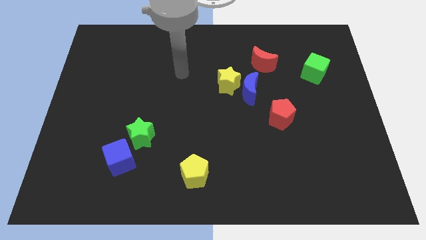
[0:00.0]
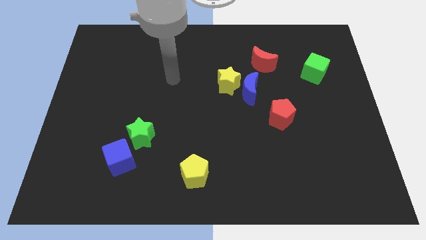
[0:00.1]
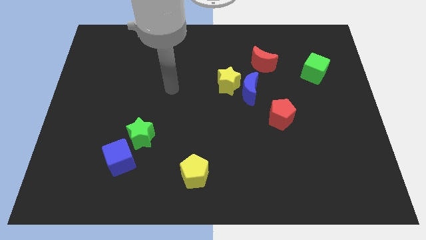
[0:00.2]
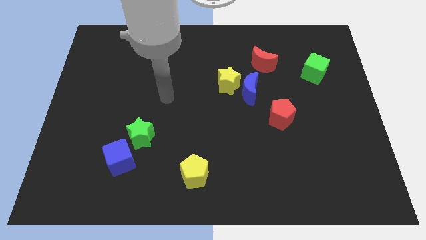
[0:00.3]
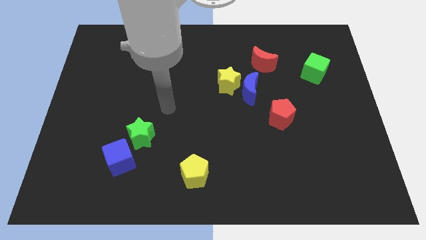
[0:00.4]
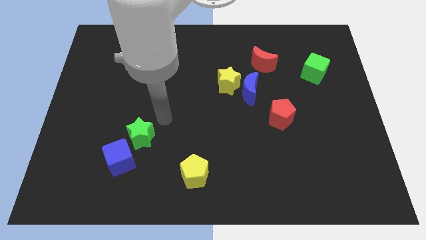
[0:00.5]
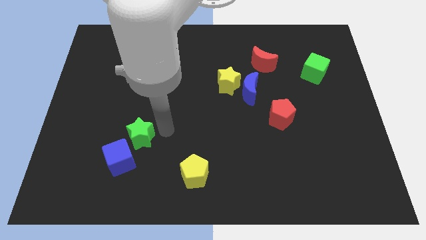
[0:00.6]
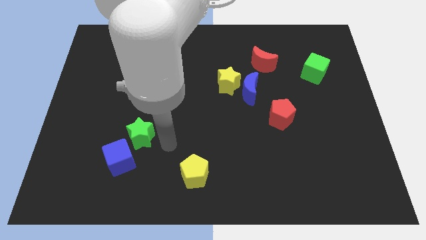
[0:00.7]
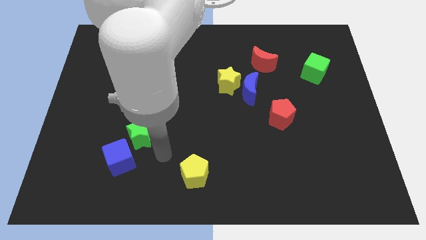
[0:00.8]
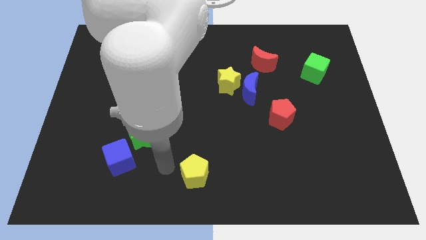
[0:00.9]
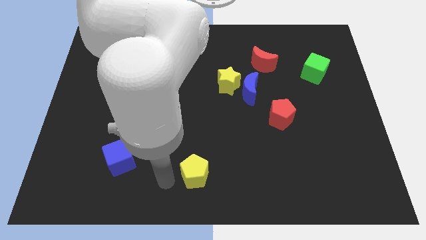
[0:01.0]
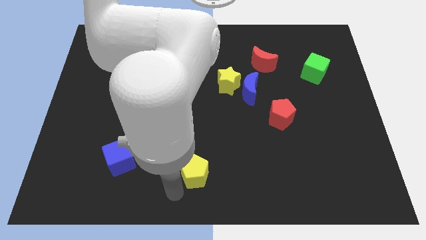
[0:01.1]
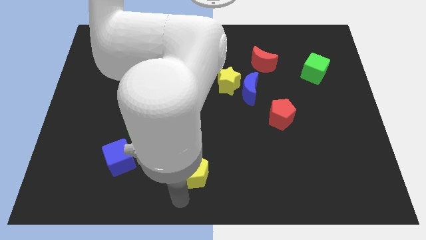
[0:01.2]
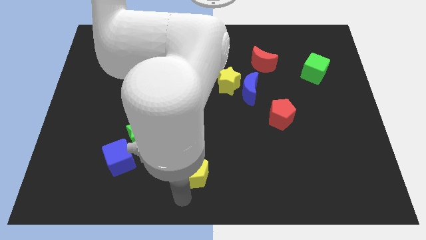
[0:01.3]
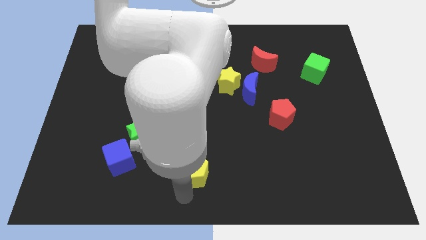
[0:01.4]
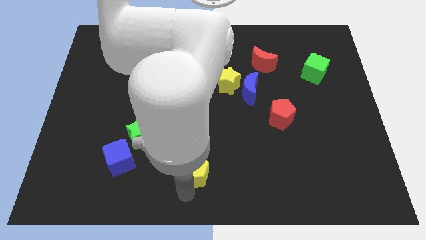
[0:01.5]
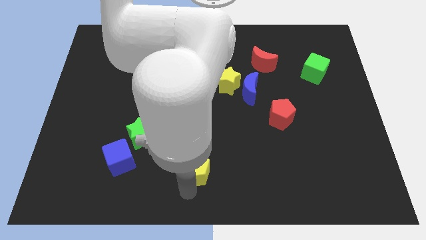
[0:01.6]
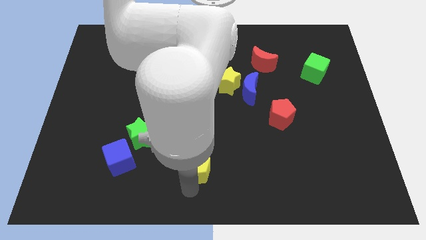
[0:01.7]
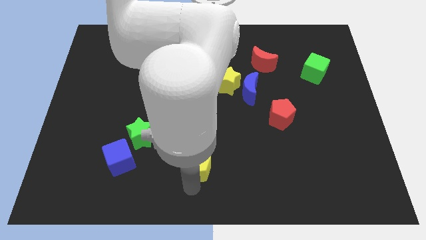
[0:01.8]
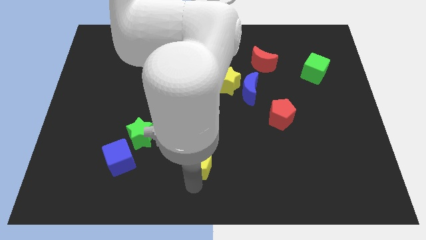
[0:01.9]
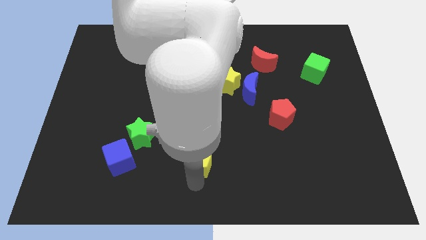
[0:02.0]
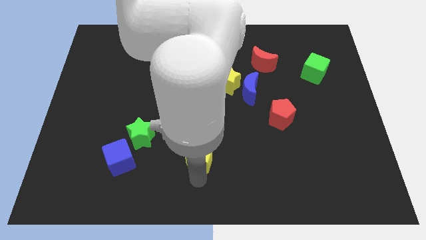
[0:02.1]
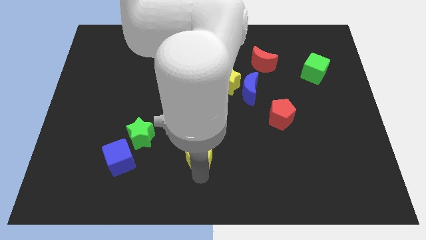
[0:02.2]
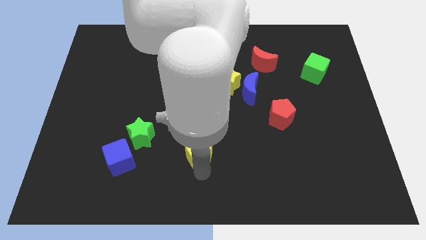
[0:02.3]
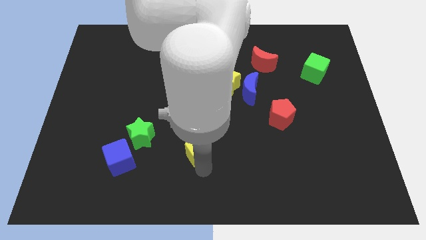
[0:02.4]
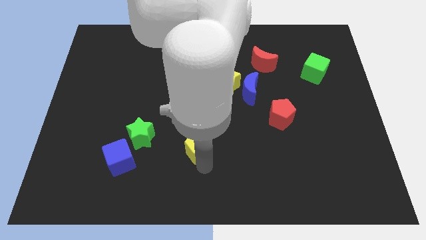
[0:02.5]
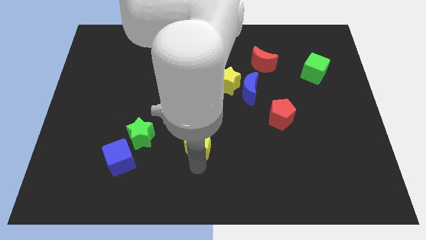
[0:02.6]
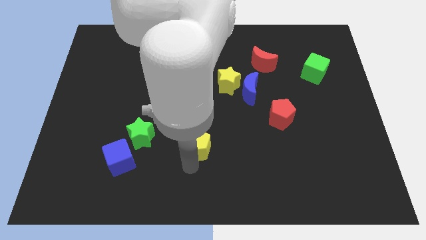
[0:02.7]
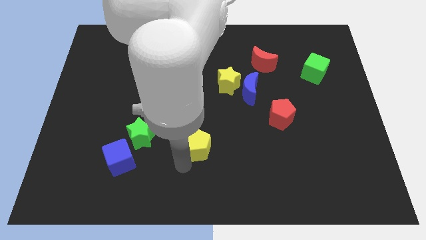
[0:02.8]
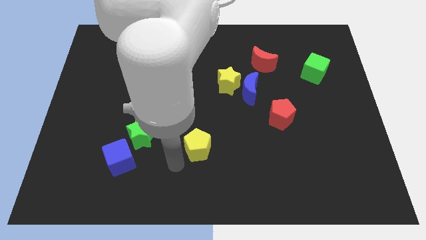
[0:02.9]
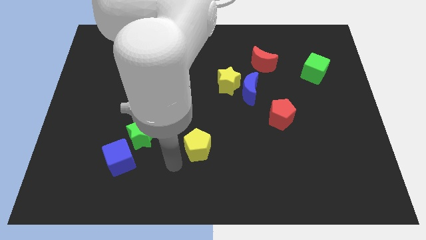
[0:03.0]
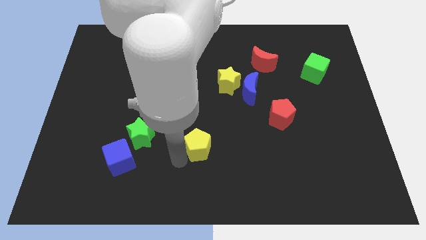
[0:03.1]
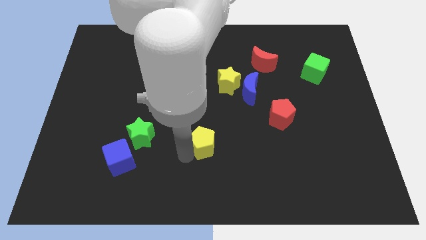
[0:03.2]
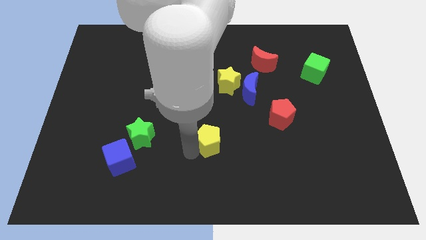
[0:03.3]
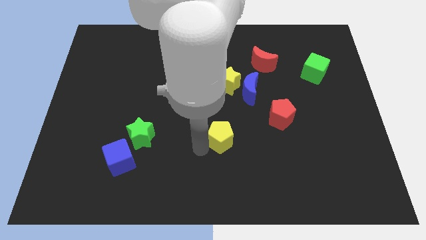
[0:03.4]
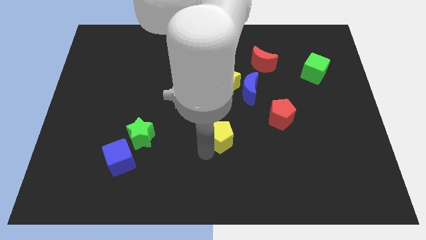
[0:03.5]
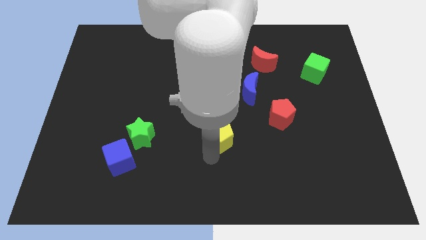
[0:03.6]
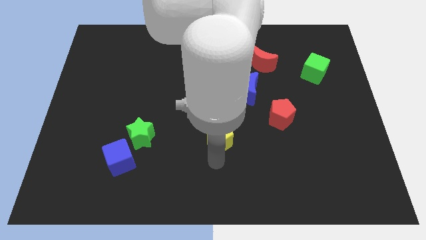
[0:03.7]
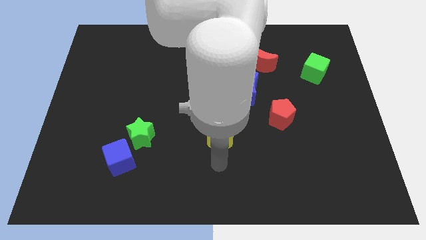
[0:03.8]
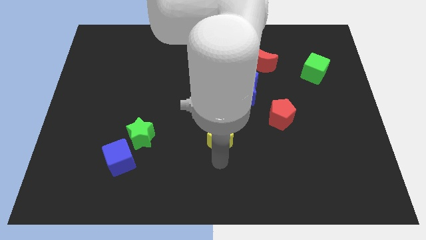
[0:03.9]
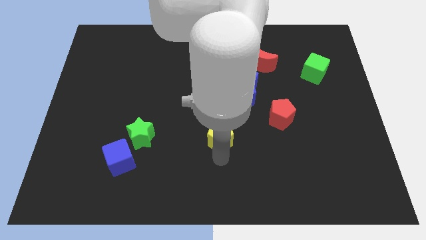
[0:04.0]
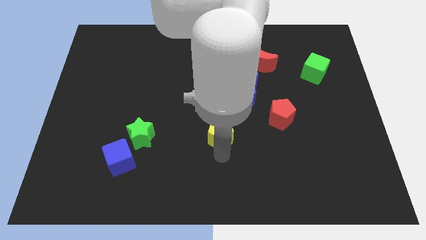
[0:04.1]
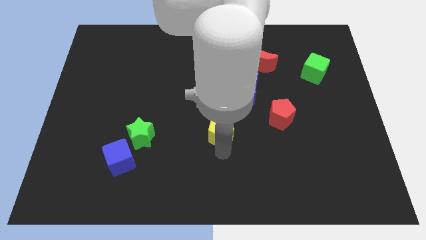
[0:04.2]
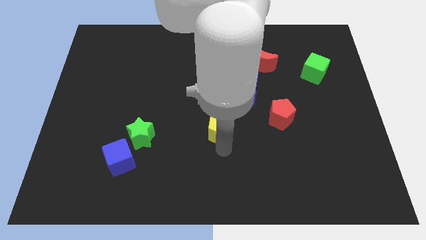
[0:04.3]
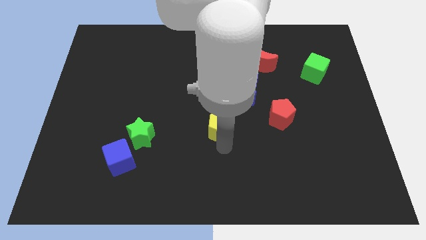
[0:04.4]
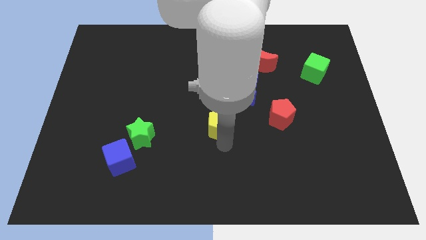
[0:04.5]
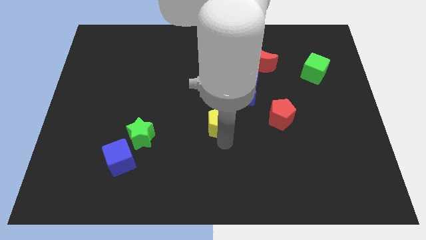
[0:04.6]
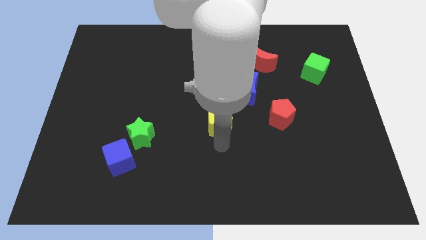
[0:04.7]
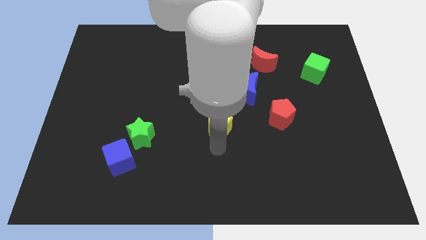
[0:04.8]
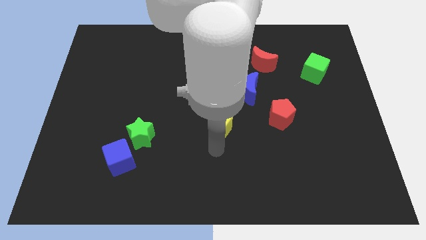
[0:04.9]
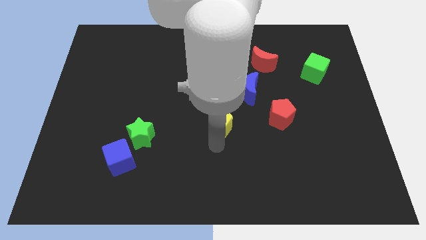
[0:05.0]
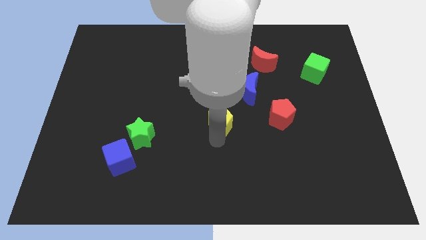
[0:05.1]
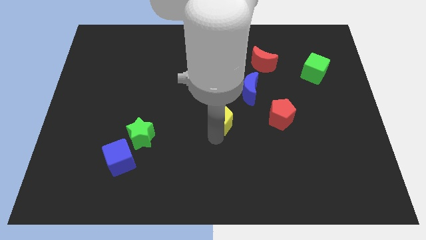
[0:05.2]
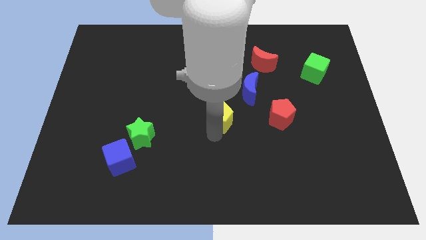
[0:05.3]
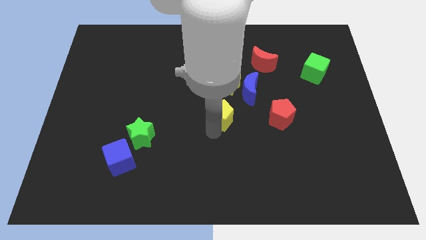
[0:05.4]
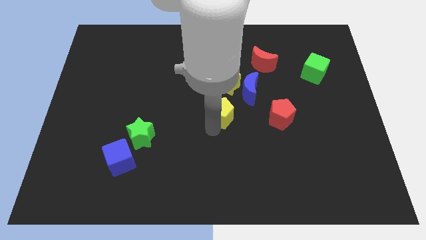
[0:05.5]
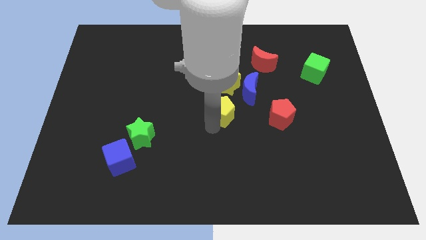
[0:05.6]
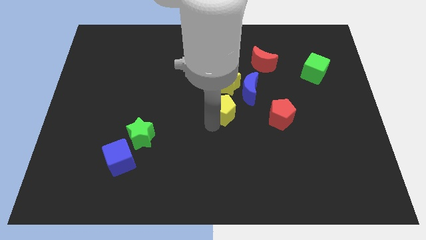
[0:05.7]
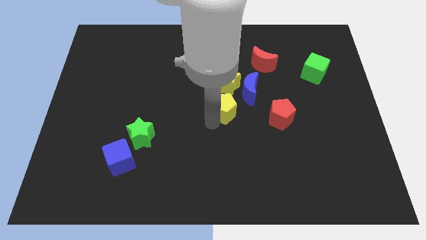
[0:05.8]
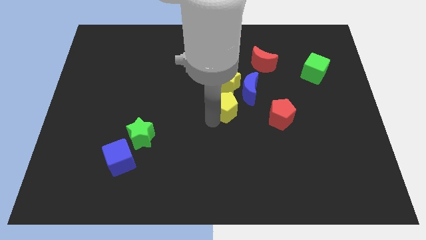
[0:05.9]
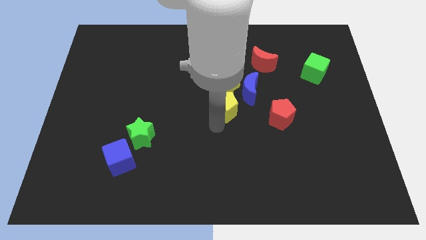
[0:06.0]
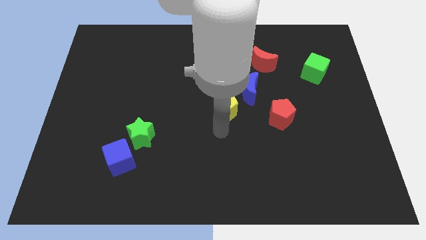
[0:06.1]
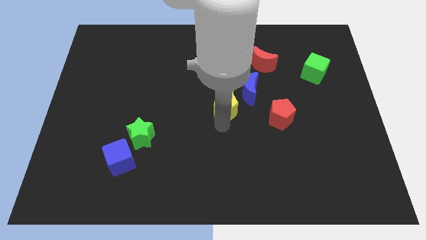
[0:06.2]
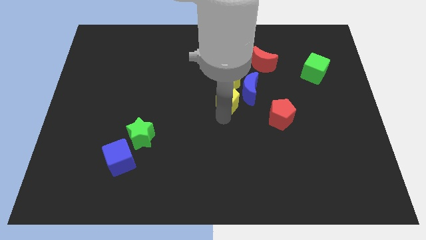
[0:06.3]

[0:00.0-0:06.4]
push the yellow pentagon next to the yellow star
